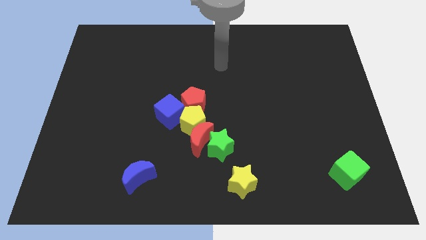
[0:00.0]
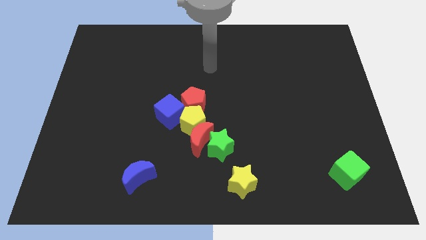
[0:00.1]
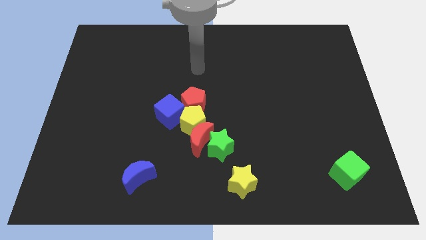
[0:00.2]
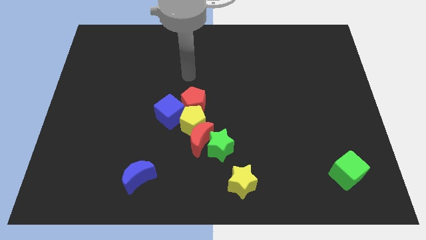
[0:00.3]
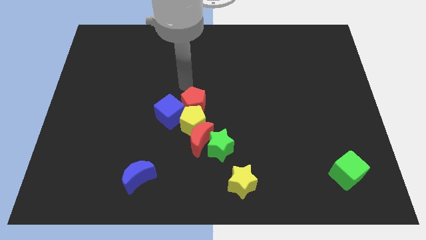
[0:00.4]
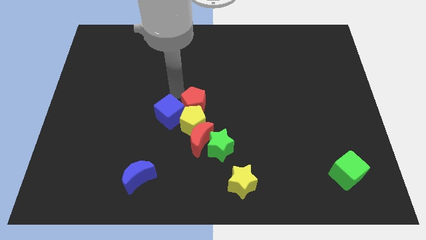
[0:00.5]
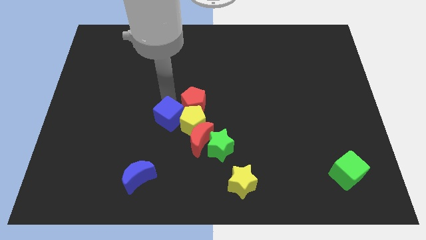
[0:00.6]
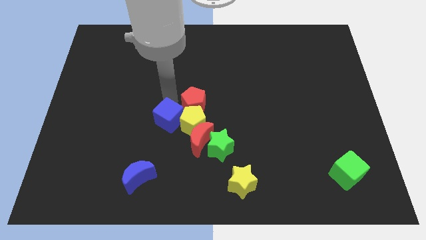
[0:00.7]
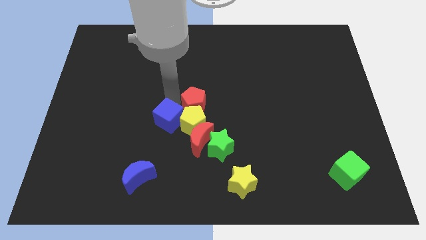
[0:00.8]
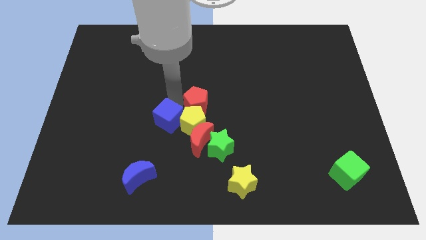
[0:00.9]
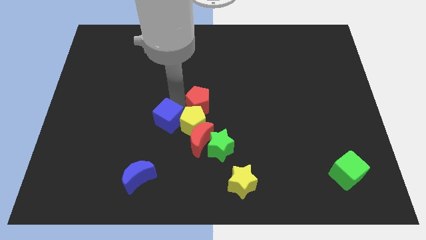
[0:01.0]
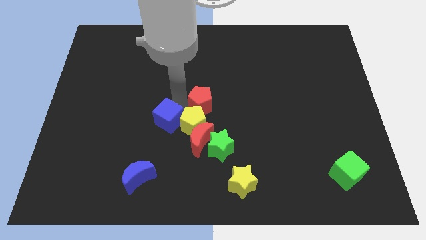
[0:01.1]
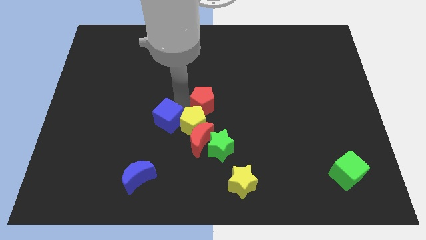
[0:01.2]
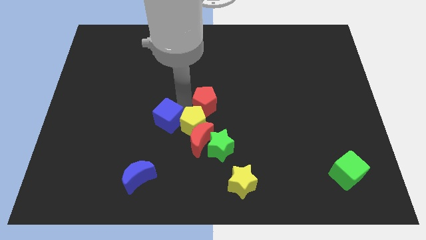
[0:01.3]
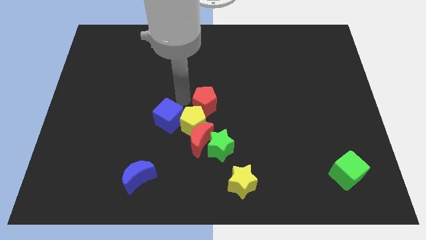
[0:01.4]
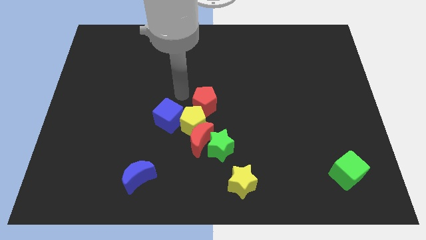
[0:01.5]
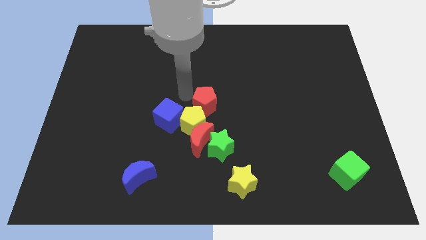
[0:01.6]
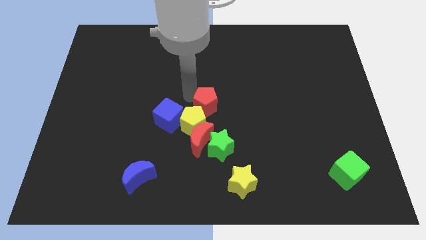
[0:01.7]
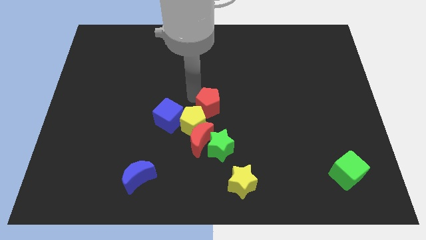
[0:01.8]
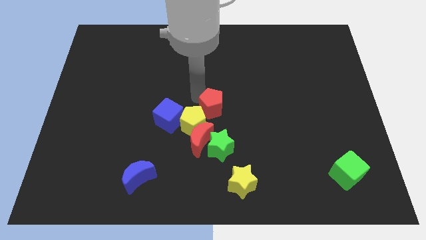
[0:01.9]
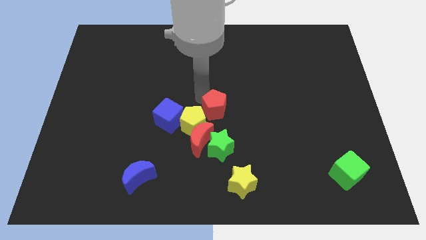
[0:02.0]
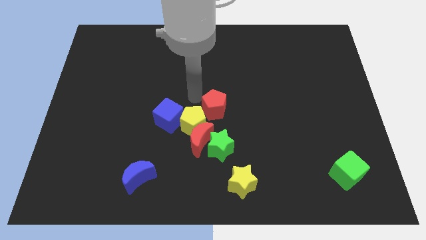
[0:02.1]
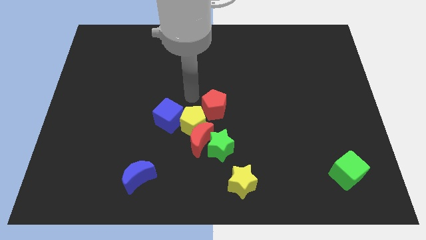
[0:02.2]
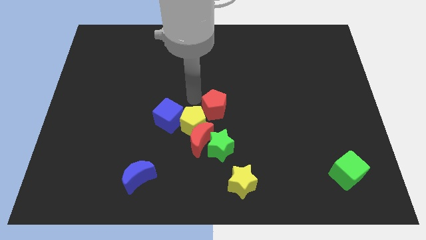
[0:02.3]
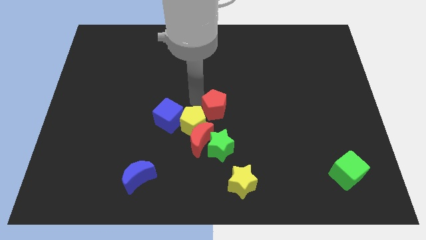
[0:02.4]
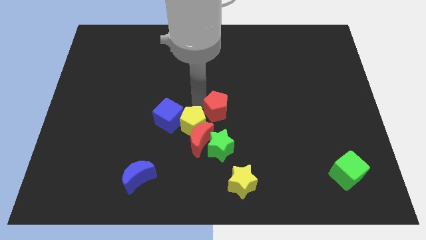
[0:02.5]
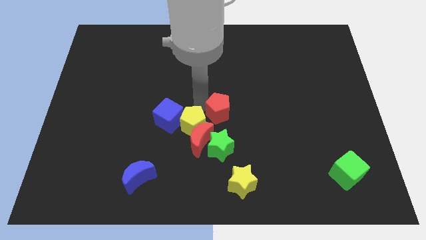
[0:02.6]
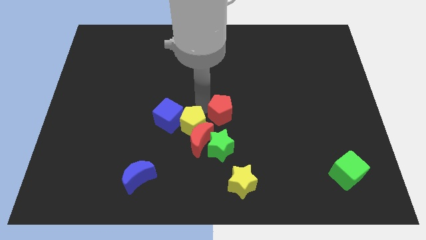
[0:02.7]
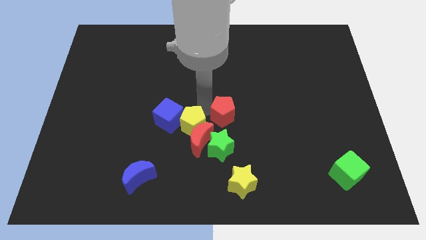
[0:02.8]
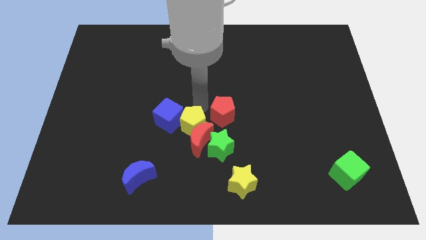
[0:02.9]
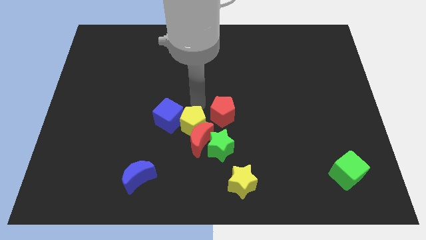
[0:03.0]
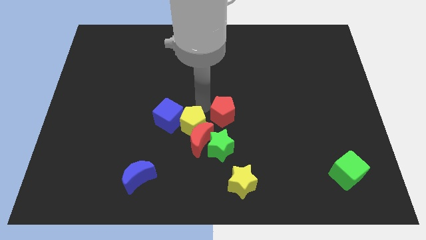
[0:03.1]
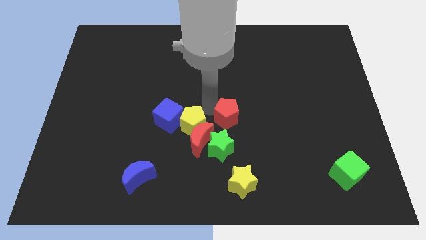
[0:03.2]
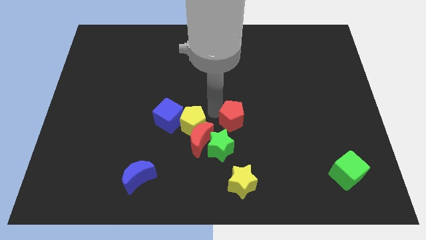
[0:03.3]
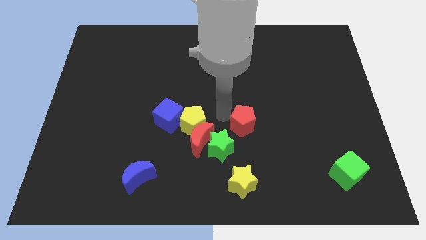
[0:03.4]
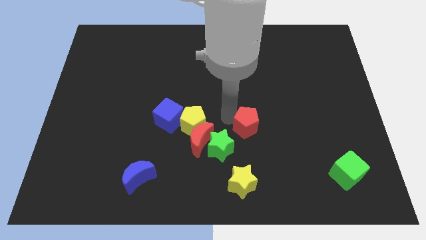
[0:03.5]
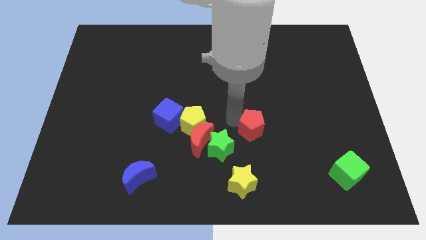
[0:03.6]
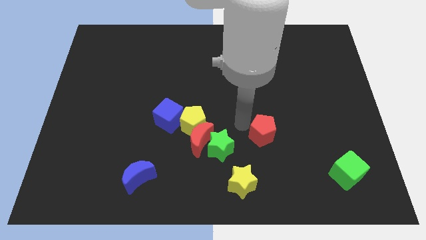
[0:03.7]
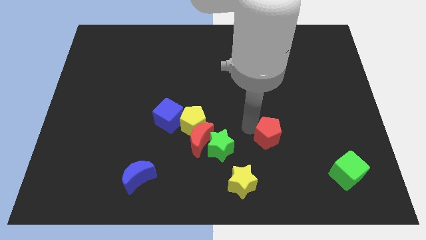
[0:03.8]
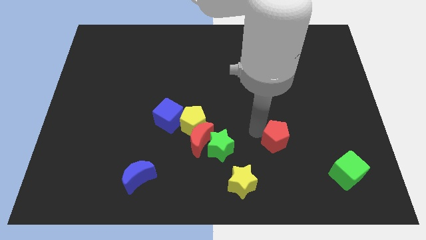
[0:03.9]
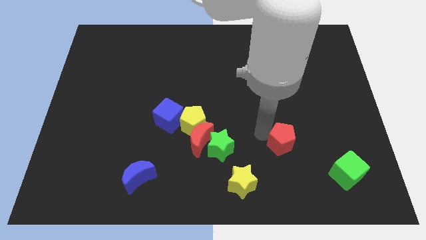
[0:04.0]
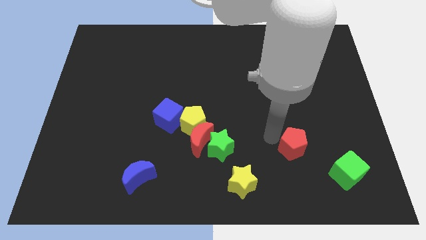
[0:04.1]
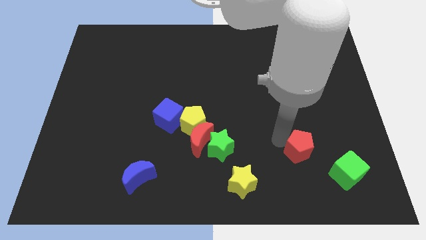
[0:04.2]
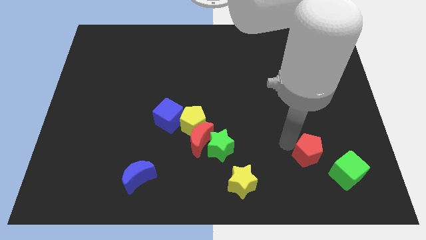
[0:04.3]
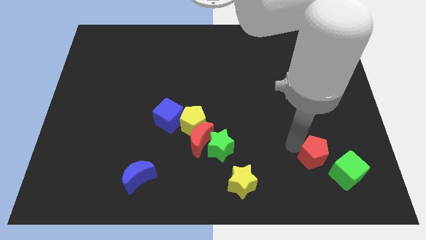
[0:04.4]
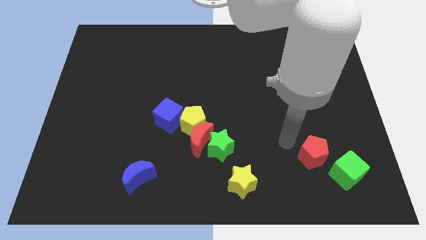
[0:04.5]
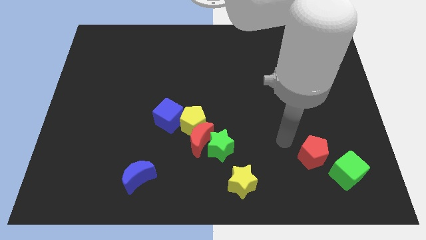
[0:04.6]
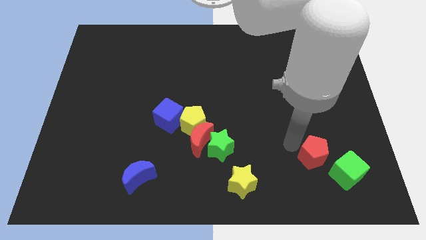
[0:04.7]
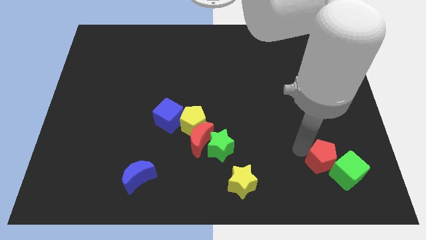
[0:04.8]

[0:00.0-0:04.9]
slide the red pentagon close to the green cube

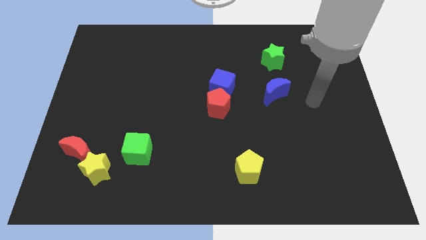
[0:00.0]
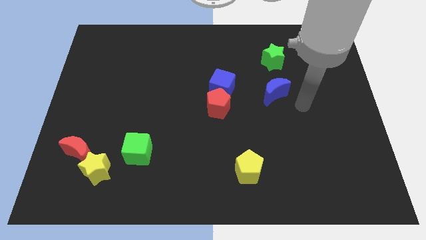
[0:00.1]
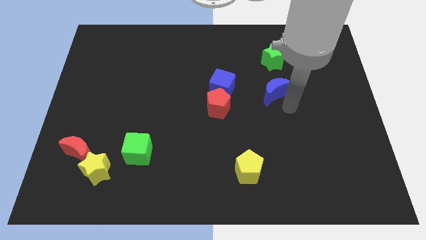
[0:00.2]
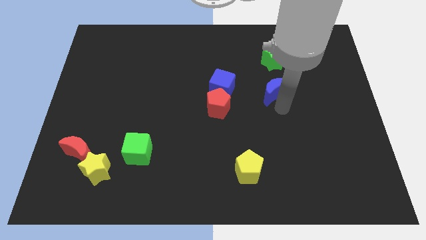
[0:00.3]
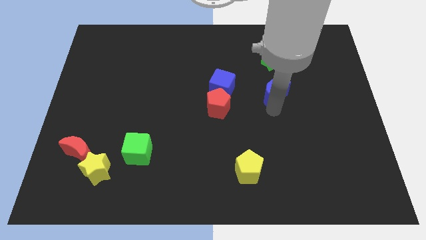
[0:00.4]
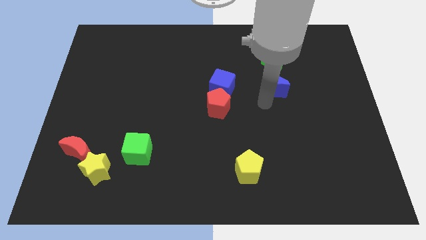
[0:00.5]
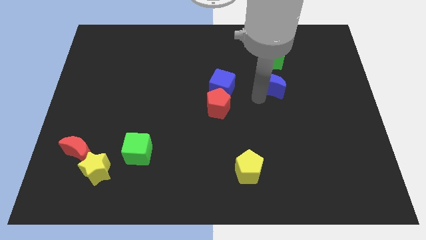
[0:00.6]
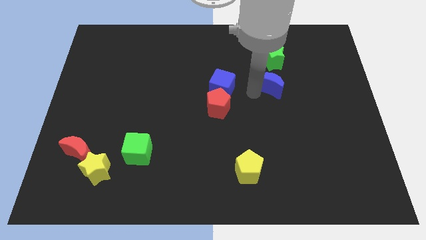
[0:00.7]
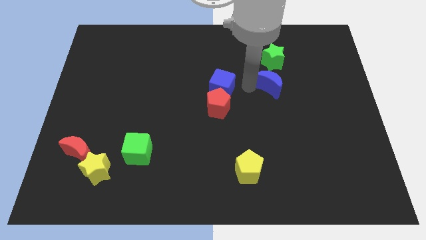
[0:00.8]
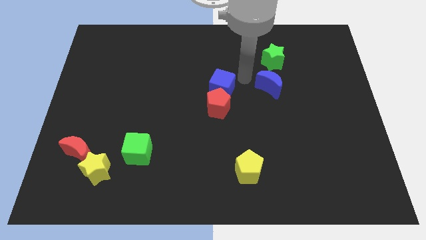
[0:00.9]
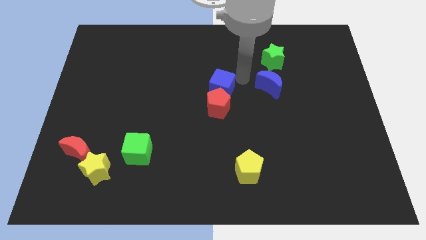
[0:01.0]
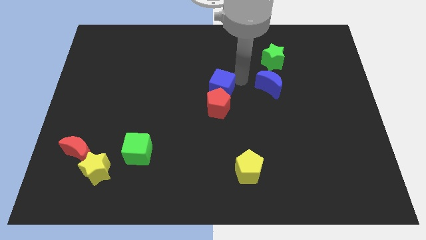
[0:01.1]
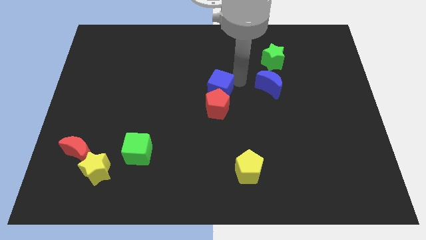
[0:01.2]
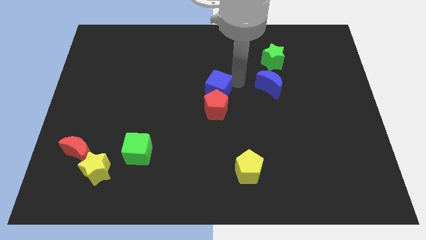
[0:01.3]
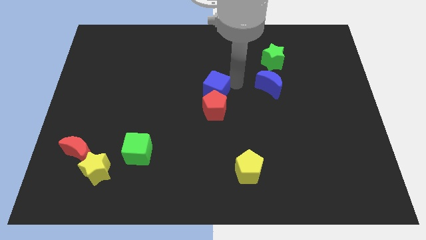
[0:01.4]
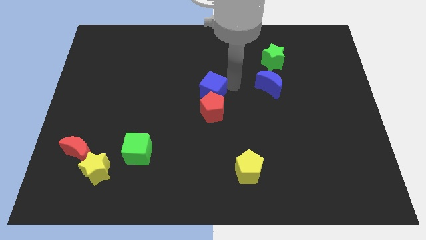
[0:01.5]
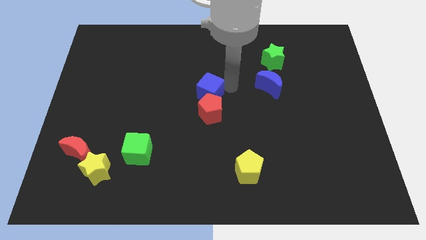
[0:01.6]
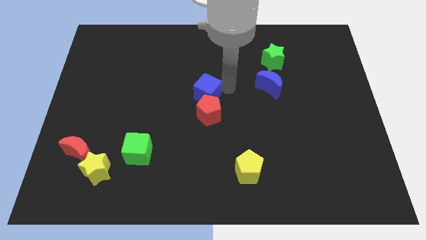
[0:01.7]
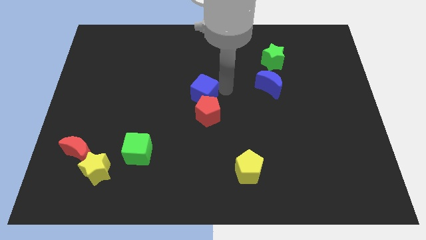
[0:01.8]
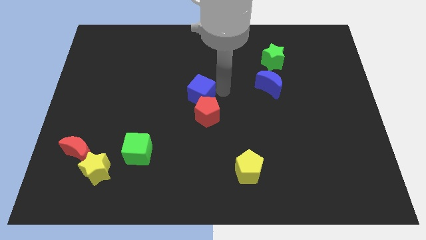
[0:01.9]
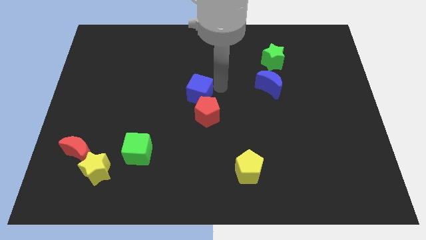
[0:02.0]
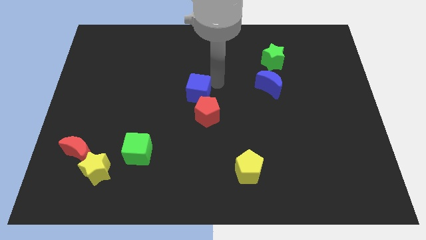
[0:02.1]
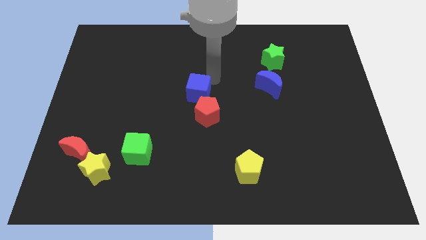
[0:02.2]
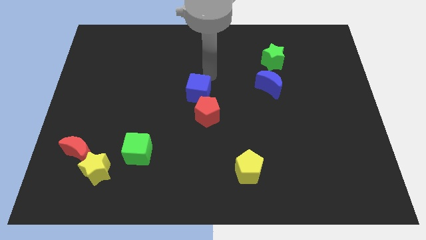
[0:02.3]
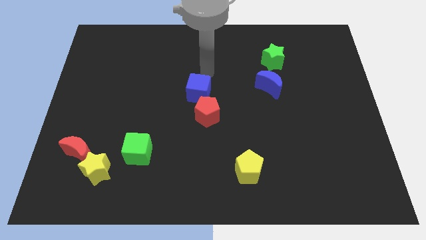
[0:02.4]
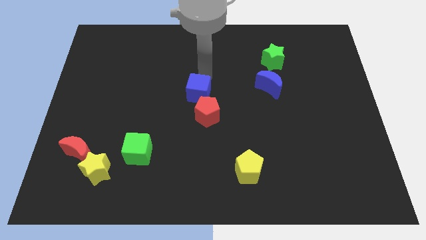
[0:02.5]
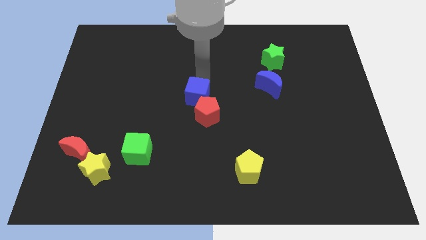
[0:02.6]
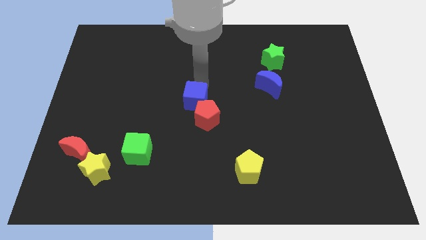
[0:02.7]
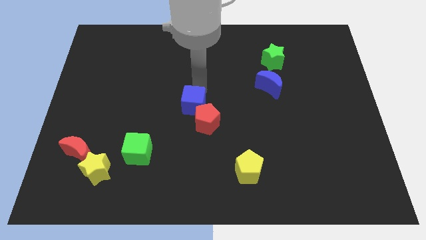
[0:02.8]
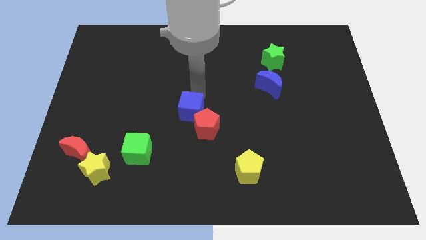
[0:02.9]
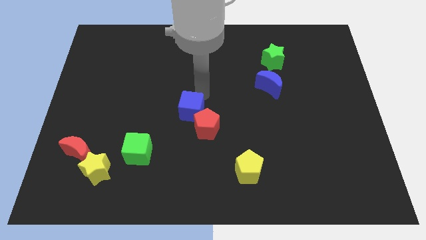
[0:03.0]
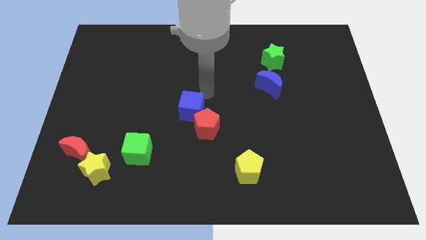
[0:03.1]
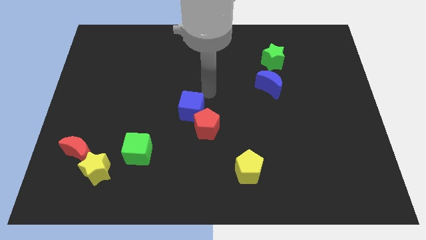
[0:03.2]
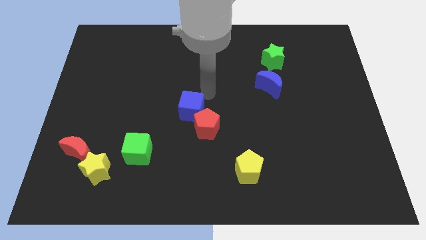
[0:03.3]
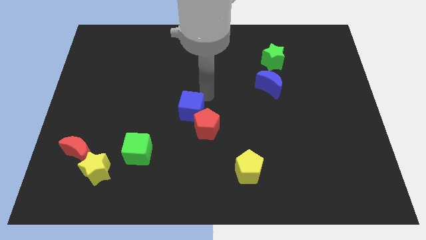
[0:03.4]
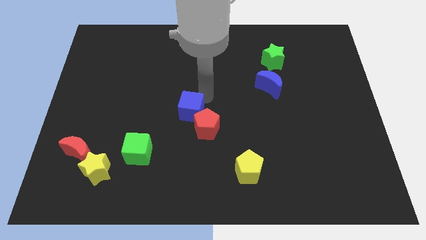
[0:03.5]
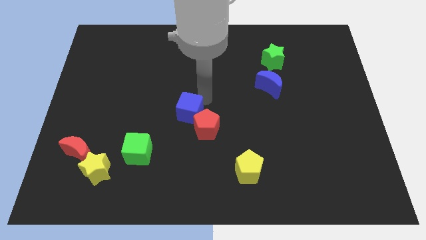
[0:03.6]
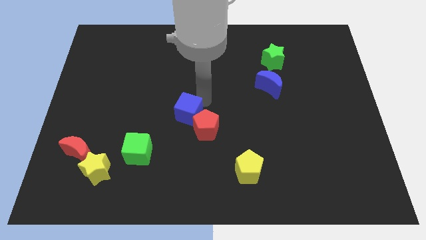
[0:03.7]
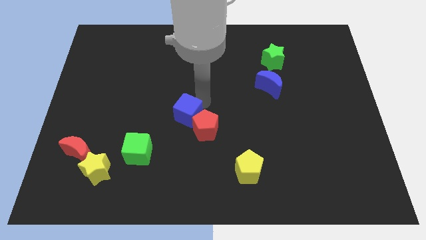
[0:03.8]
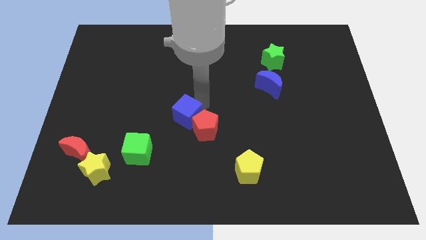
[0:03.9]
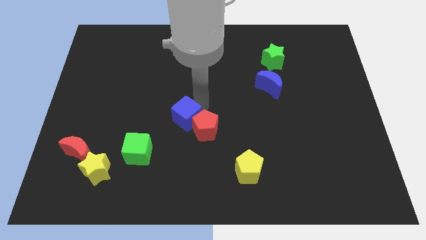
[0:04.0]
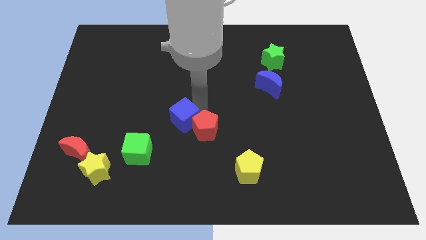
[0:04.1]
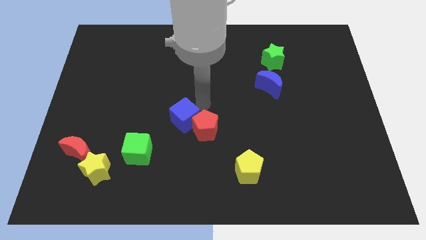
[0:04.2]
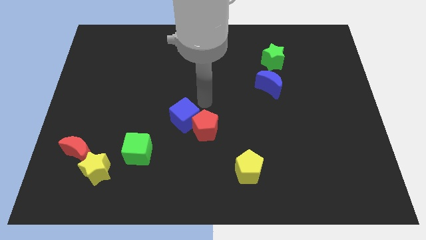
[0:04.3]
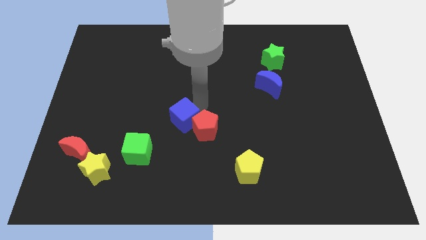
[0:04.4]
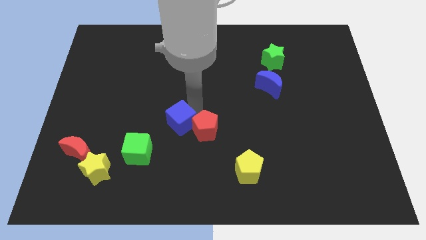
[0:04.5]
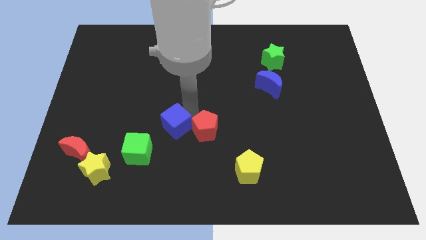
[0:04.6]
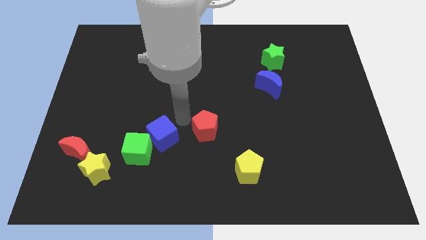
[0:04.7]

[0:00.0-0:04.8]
put the blue cube to the green cube
